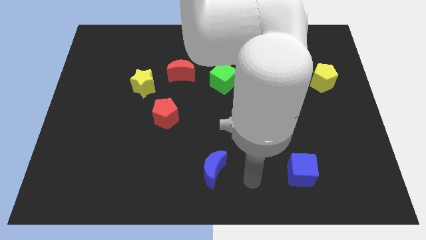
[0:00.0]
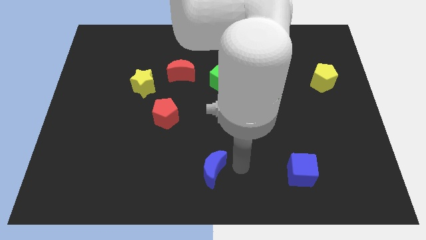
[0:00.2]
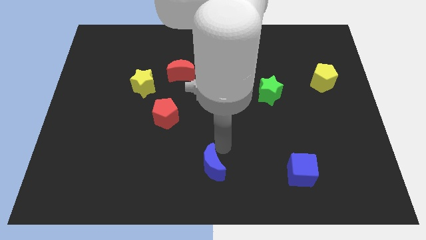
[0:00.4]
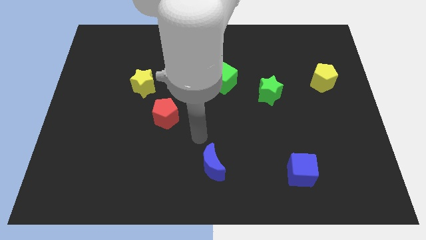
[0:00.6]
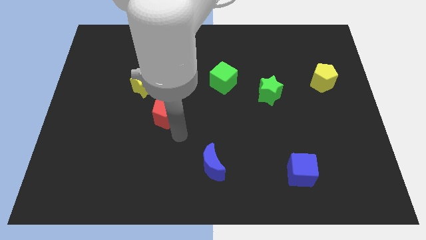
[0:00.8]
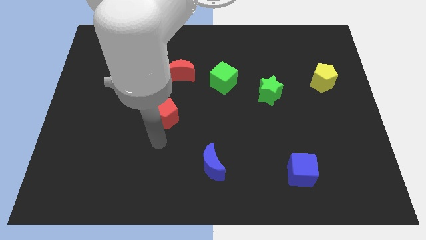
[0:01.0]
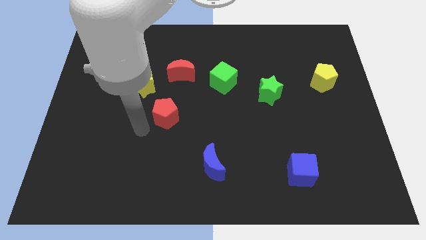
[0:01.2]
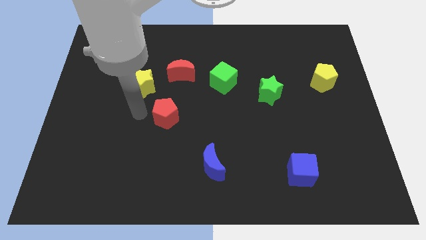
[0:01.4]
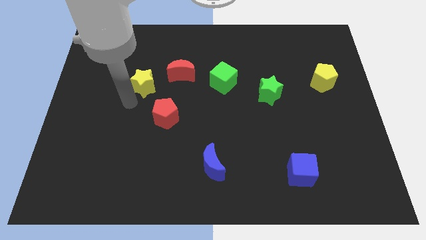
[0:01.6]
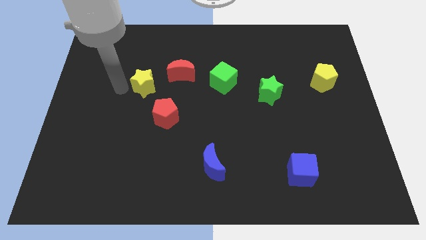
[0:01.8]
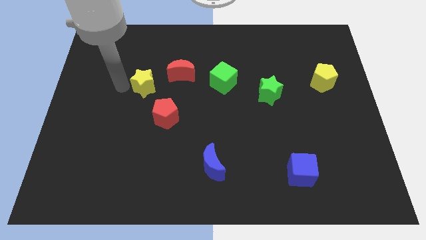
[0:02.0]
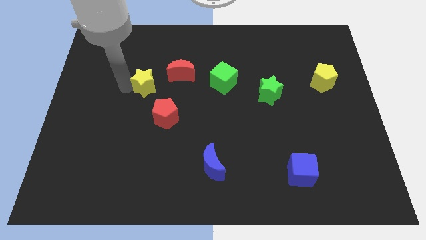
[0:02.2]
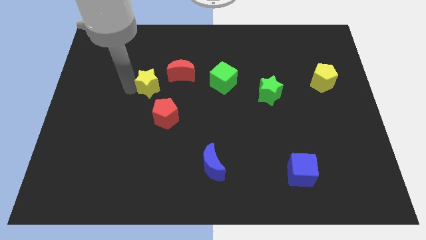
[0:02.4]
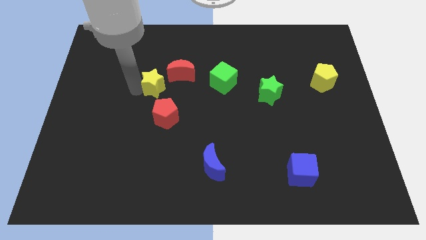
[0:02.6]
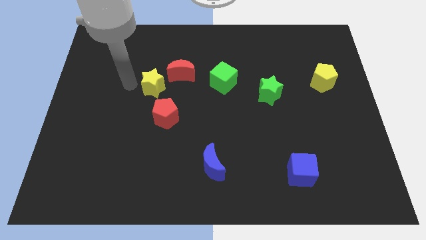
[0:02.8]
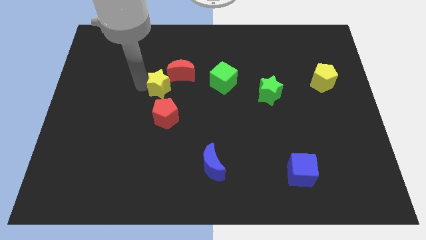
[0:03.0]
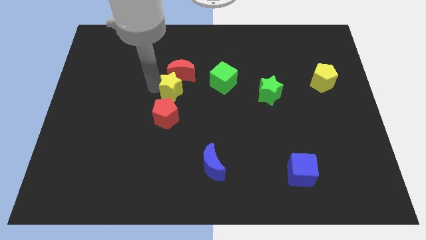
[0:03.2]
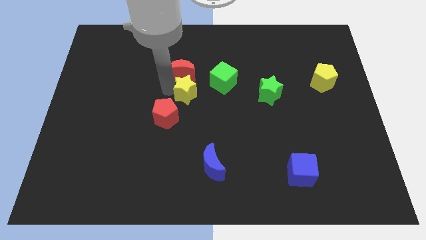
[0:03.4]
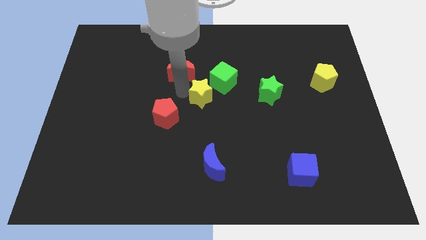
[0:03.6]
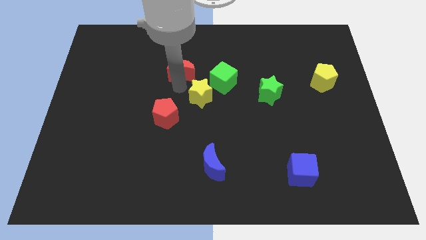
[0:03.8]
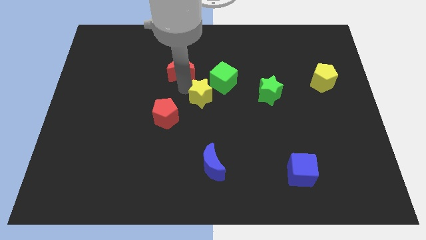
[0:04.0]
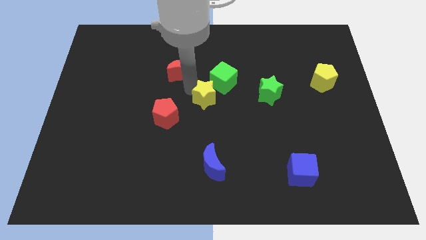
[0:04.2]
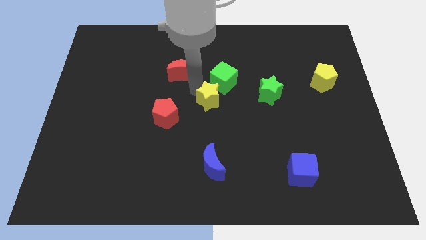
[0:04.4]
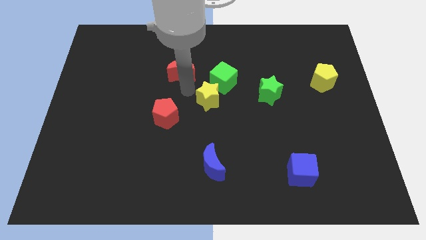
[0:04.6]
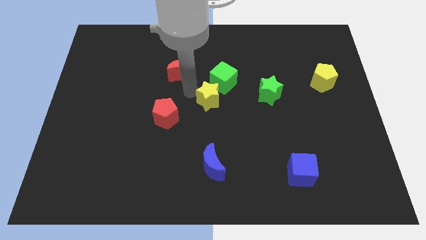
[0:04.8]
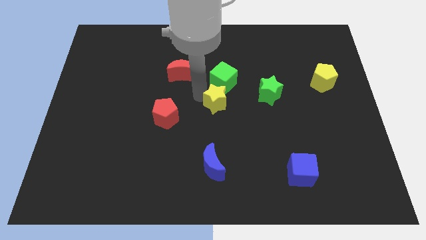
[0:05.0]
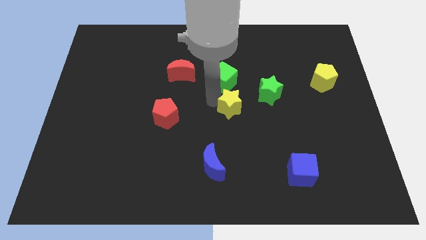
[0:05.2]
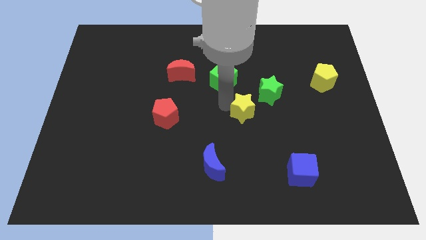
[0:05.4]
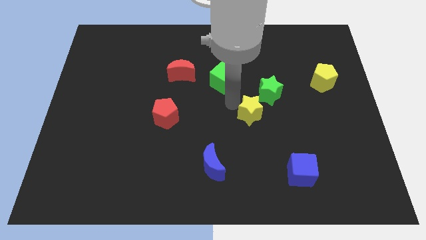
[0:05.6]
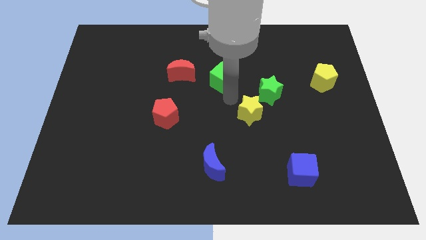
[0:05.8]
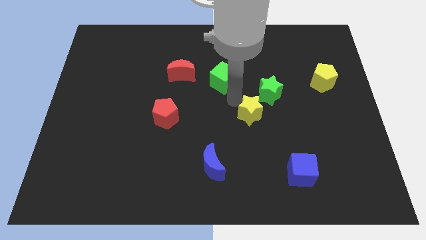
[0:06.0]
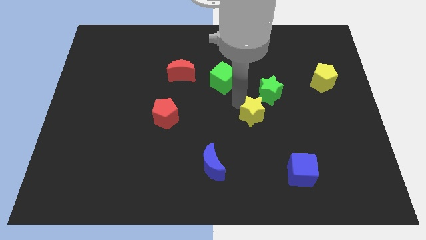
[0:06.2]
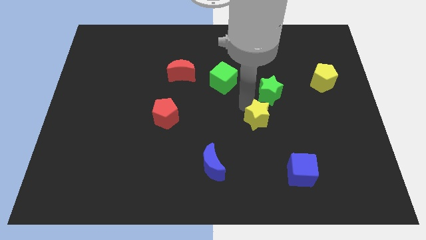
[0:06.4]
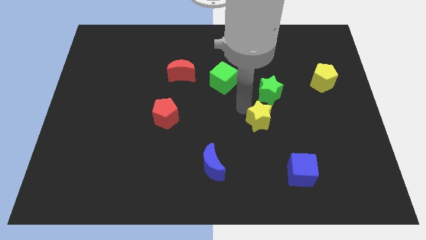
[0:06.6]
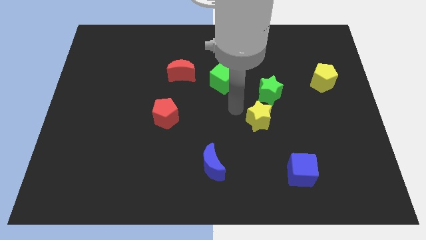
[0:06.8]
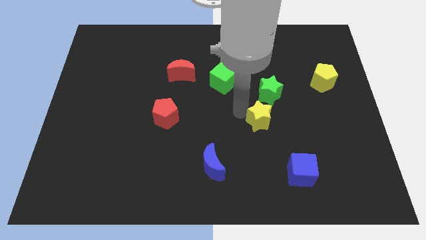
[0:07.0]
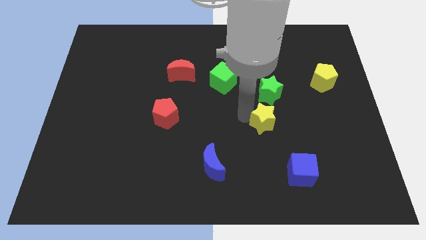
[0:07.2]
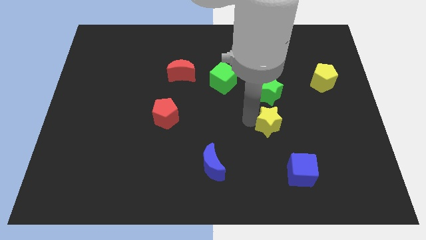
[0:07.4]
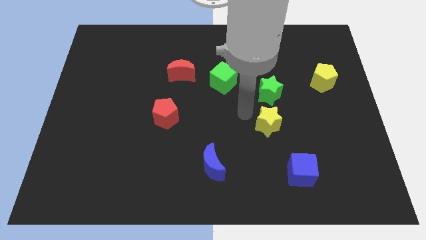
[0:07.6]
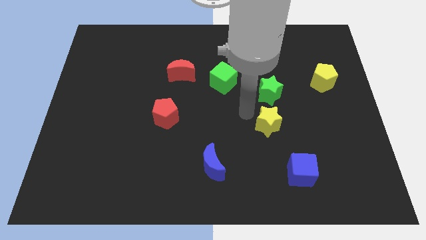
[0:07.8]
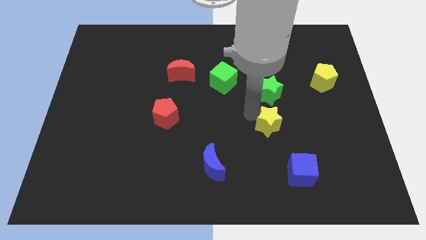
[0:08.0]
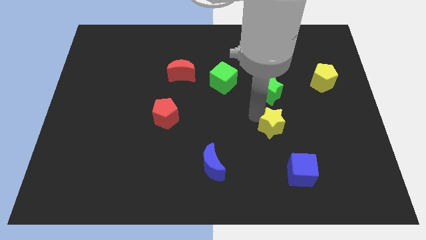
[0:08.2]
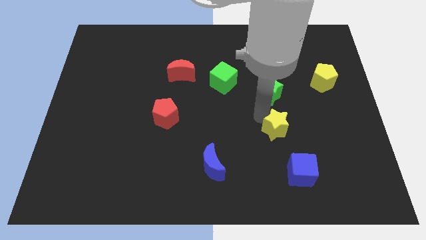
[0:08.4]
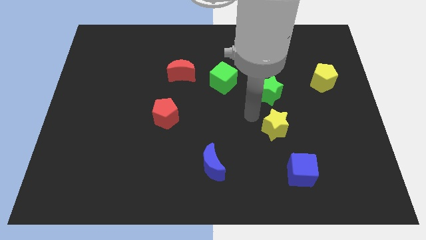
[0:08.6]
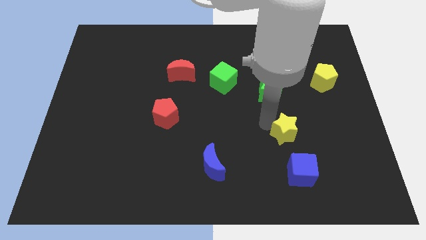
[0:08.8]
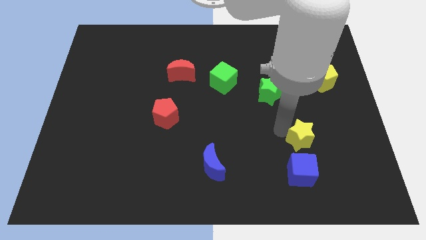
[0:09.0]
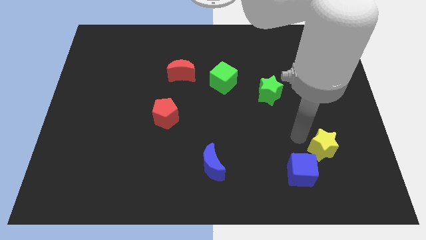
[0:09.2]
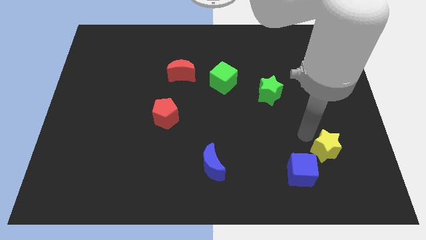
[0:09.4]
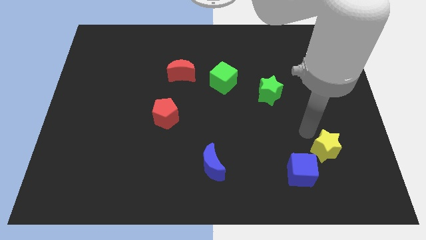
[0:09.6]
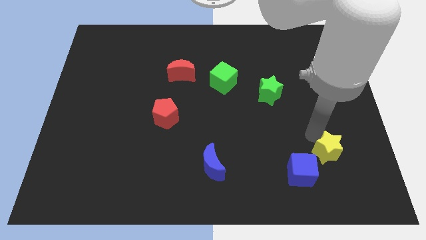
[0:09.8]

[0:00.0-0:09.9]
put the yellow star to the right side of the blue cube

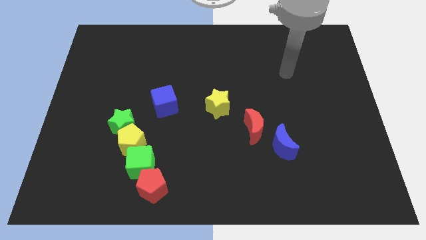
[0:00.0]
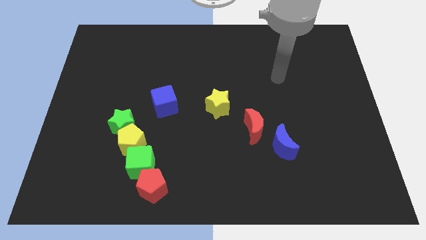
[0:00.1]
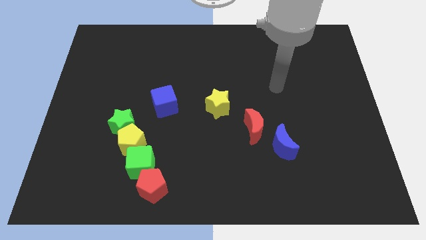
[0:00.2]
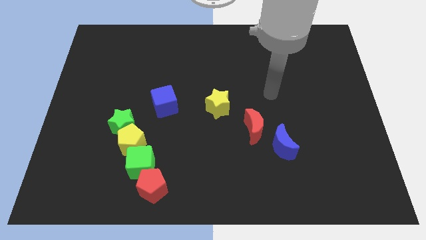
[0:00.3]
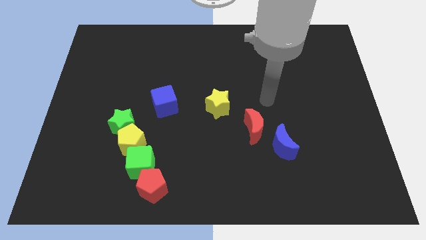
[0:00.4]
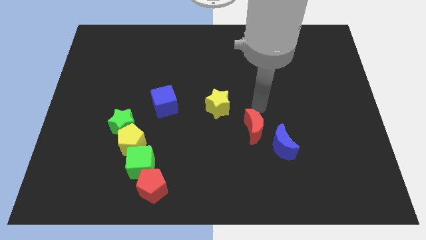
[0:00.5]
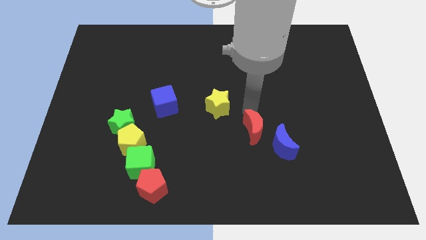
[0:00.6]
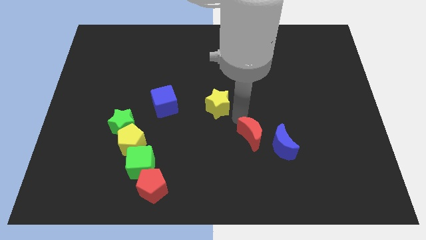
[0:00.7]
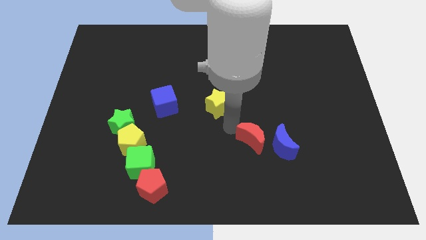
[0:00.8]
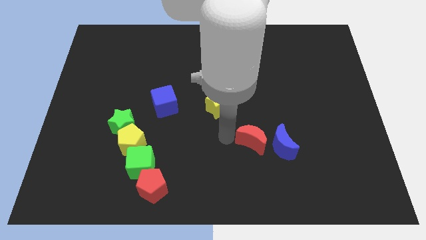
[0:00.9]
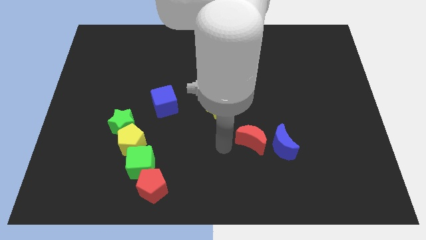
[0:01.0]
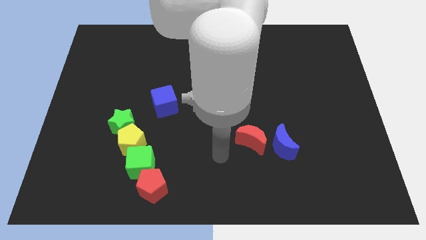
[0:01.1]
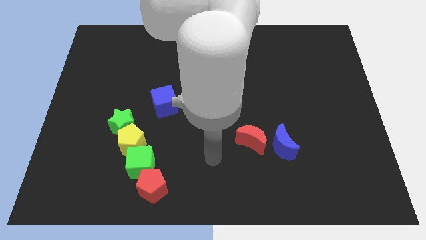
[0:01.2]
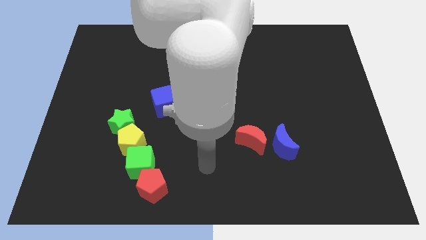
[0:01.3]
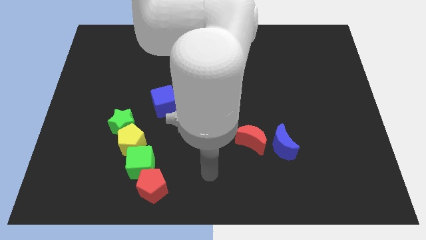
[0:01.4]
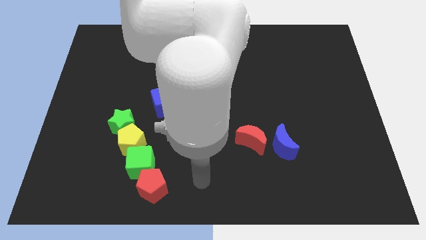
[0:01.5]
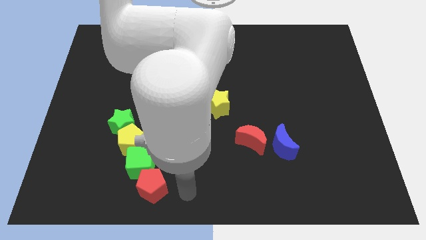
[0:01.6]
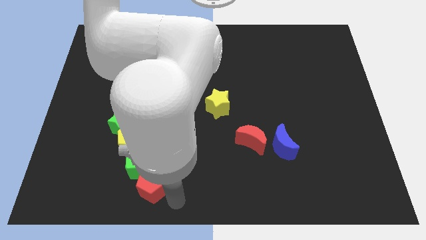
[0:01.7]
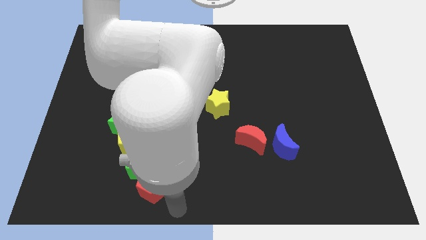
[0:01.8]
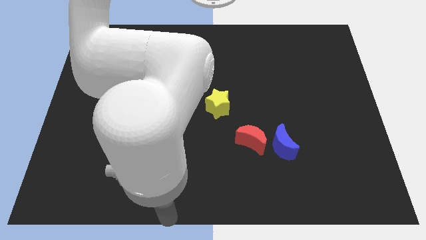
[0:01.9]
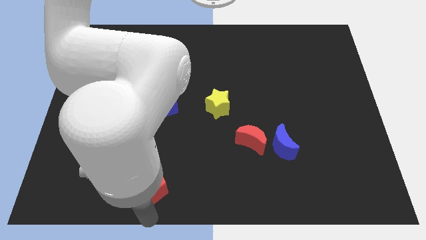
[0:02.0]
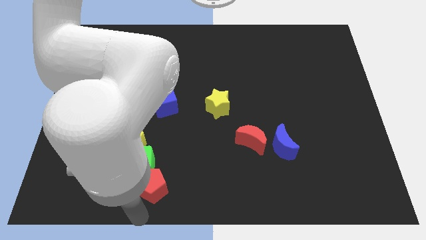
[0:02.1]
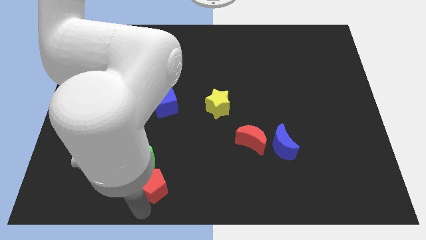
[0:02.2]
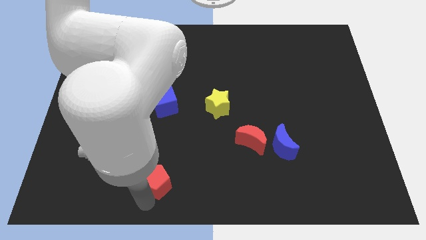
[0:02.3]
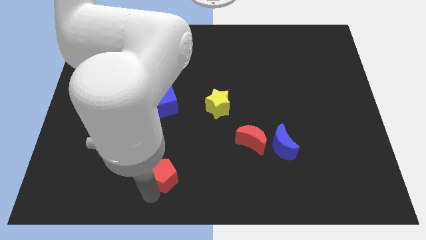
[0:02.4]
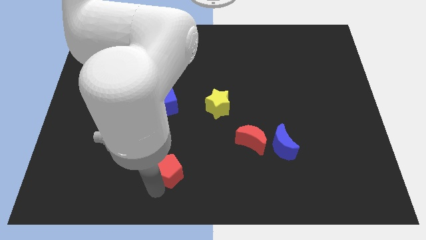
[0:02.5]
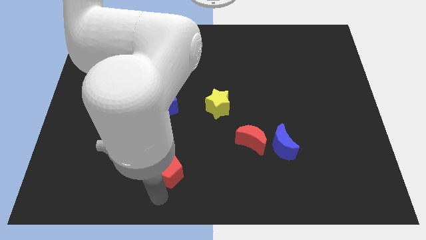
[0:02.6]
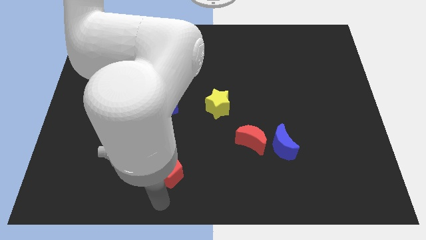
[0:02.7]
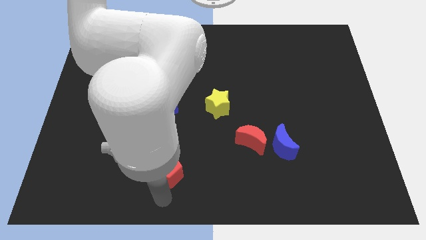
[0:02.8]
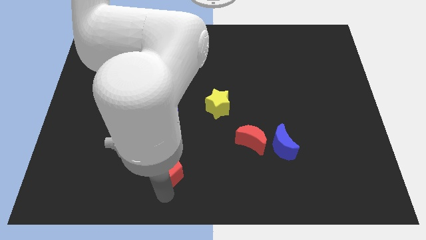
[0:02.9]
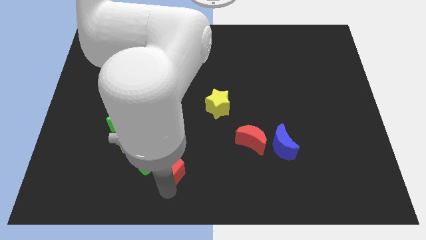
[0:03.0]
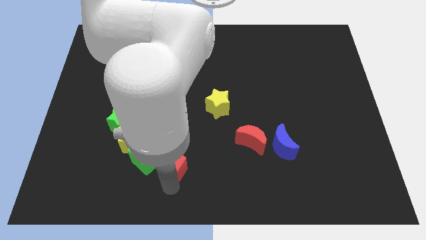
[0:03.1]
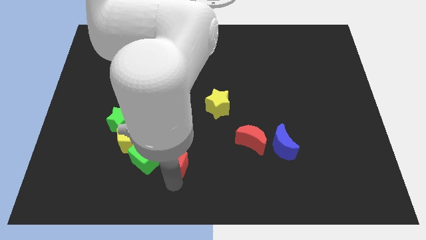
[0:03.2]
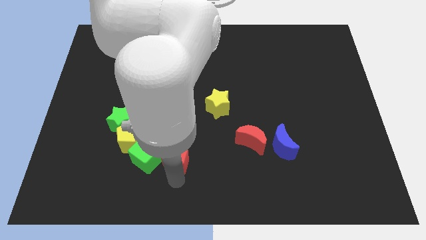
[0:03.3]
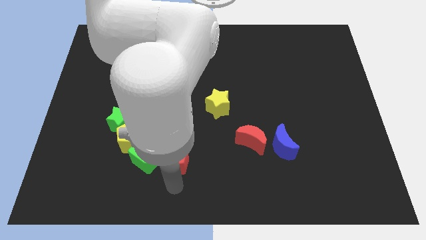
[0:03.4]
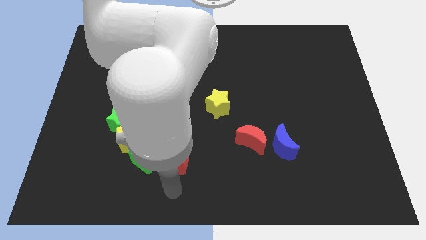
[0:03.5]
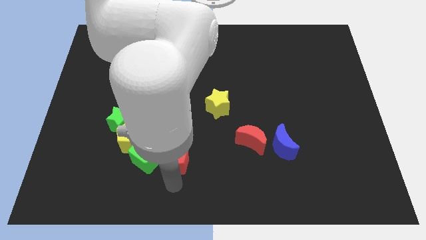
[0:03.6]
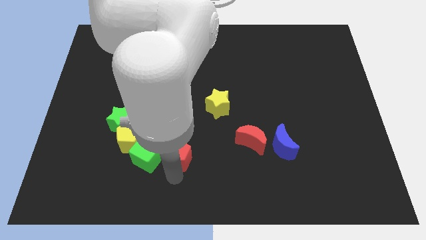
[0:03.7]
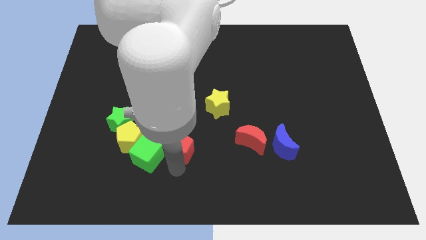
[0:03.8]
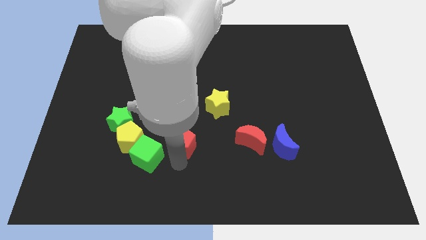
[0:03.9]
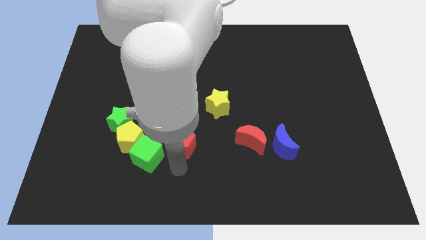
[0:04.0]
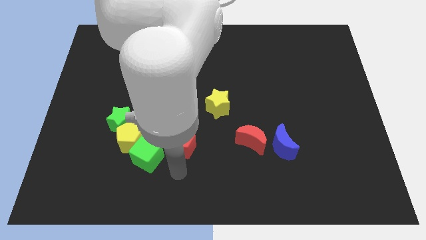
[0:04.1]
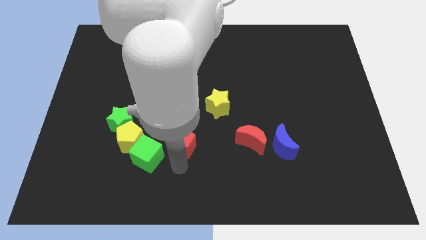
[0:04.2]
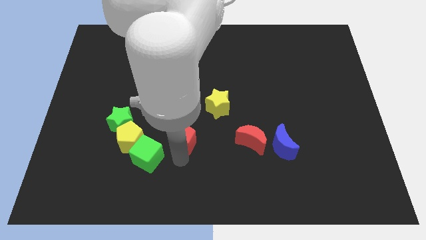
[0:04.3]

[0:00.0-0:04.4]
slide the red pentagon to the bottom right side of the blue cube
